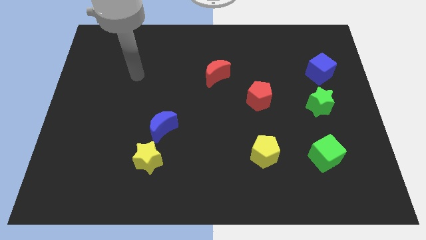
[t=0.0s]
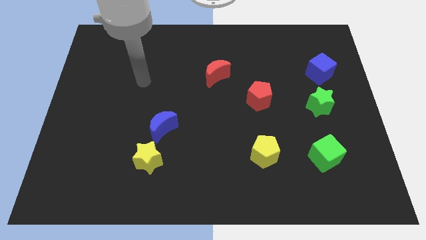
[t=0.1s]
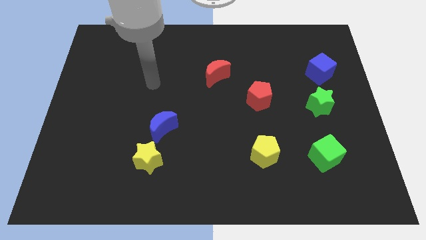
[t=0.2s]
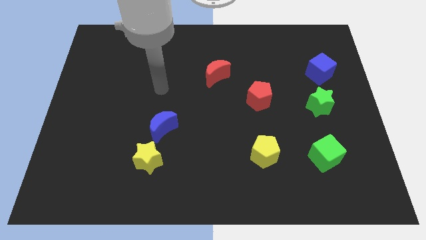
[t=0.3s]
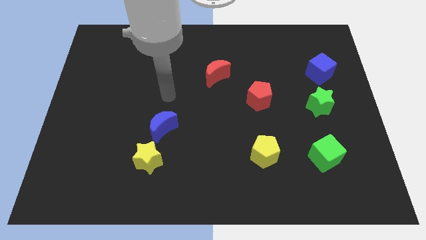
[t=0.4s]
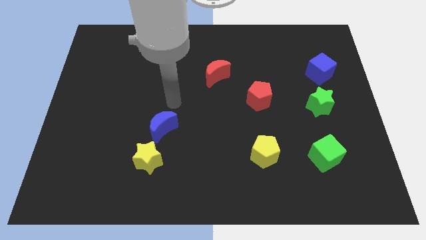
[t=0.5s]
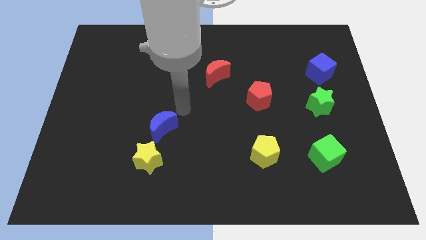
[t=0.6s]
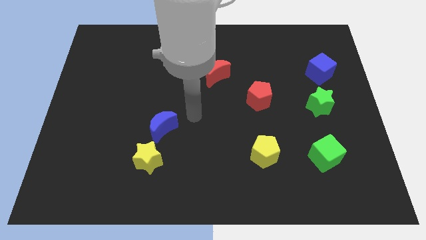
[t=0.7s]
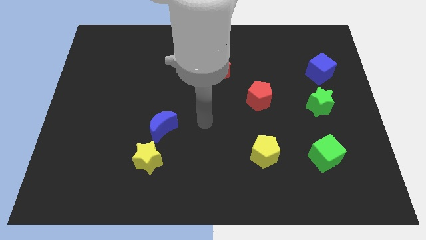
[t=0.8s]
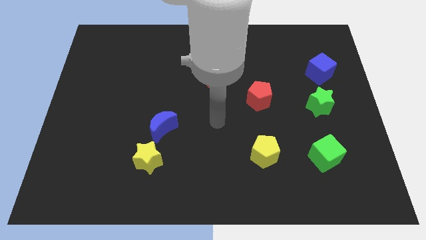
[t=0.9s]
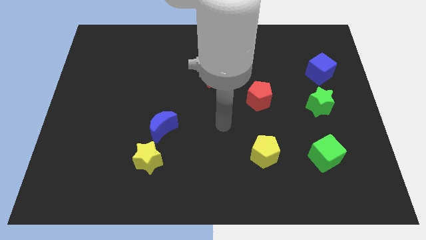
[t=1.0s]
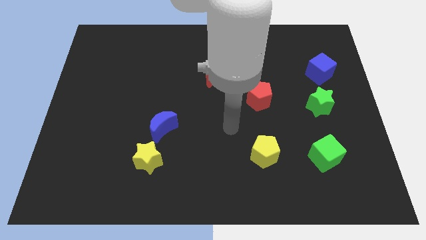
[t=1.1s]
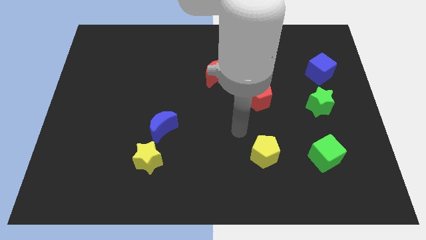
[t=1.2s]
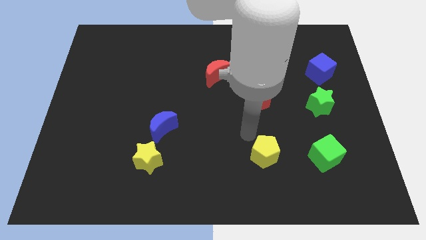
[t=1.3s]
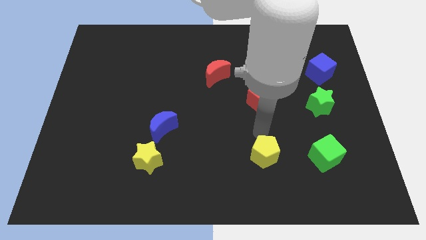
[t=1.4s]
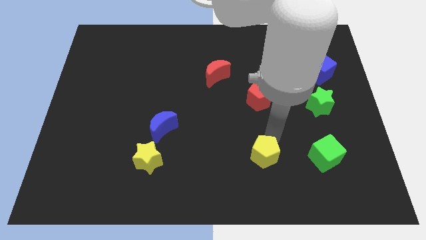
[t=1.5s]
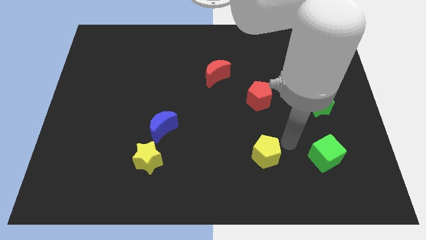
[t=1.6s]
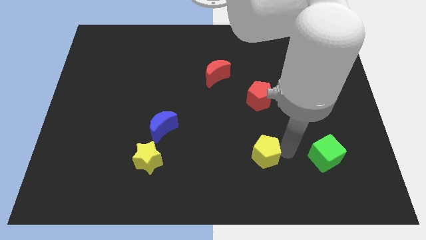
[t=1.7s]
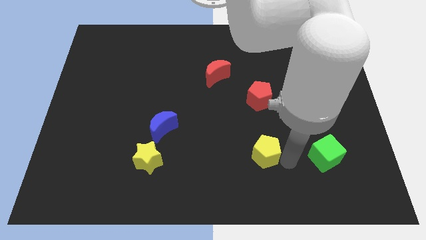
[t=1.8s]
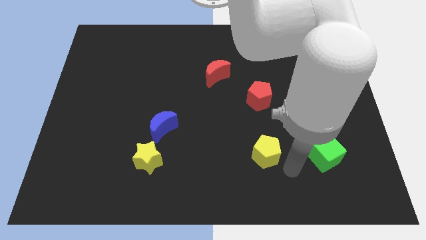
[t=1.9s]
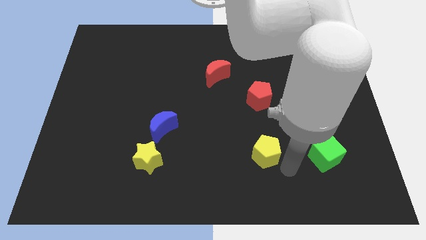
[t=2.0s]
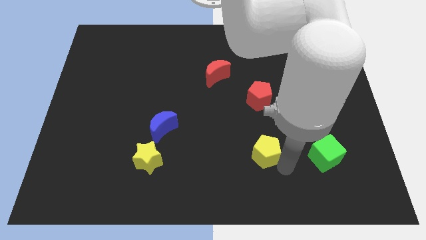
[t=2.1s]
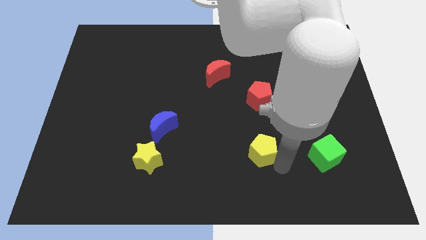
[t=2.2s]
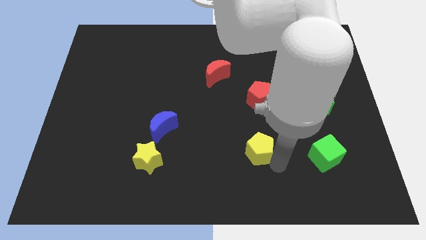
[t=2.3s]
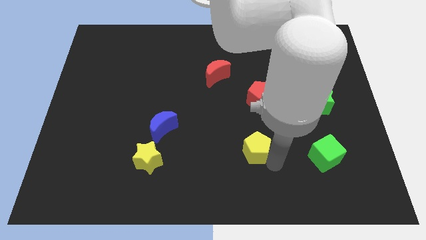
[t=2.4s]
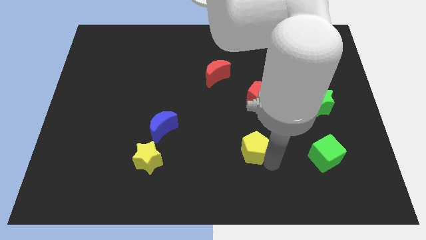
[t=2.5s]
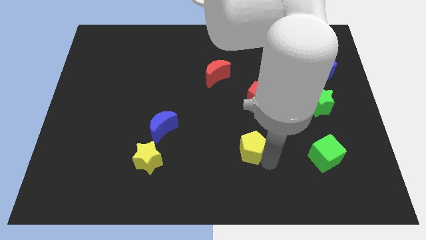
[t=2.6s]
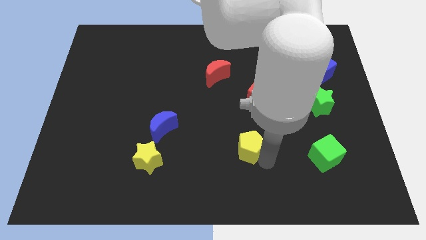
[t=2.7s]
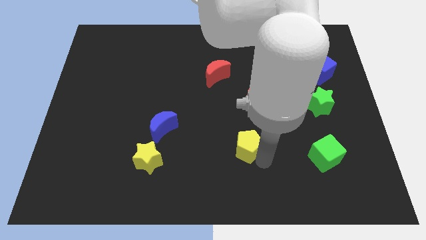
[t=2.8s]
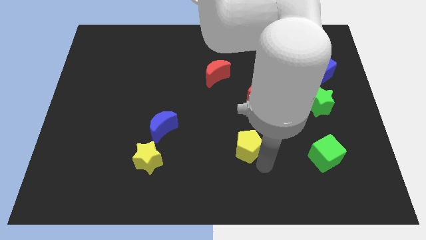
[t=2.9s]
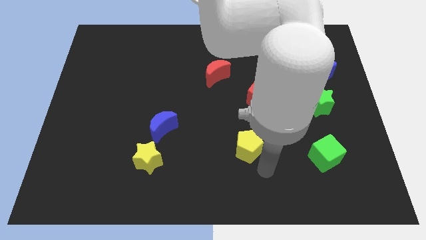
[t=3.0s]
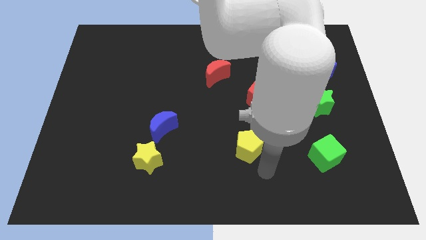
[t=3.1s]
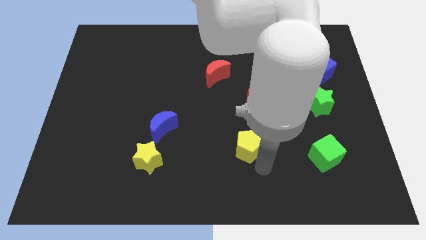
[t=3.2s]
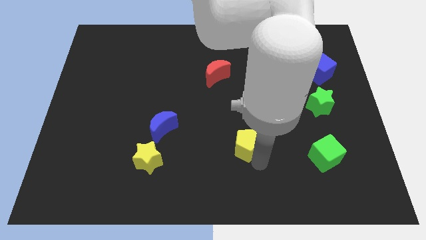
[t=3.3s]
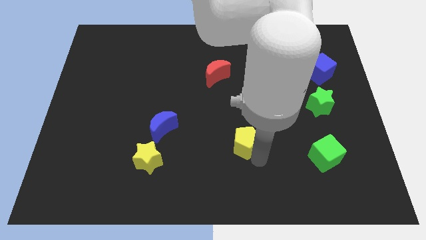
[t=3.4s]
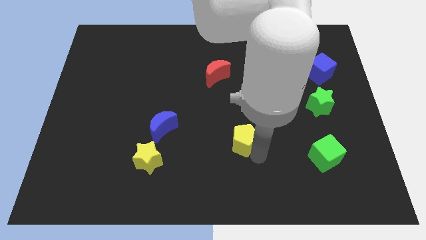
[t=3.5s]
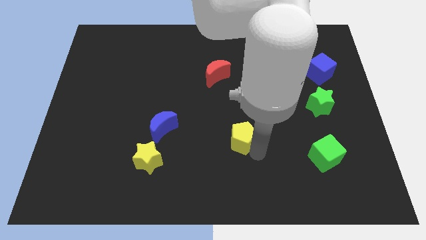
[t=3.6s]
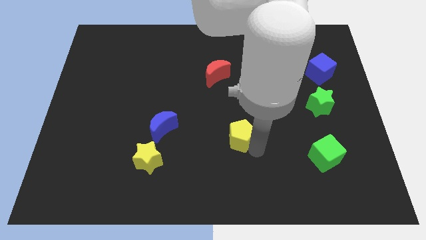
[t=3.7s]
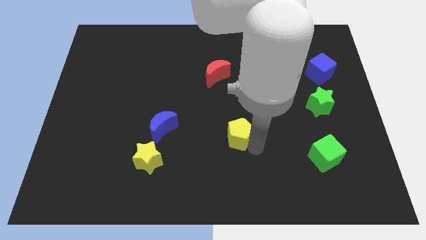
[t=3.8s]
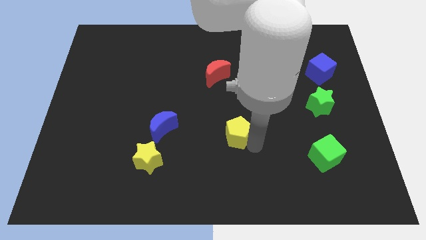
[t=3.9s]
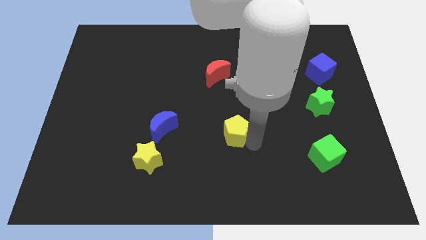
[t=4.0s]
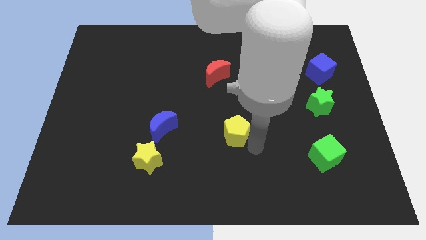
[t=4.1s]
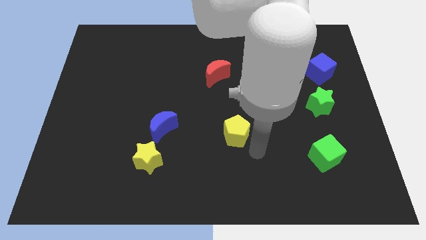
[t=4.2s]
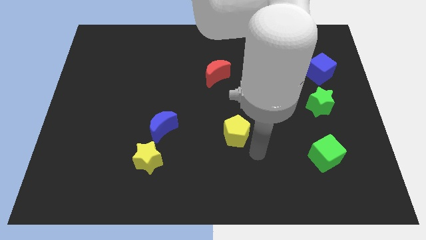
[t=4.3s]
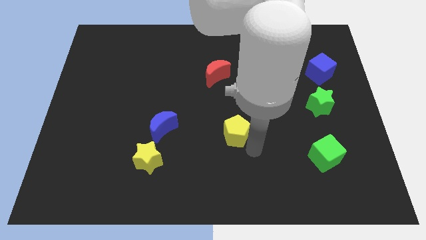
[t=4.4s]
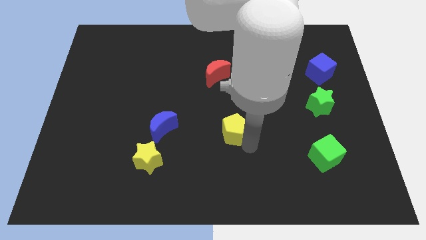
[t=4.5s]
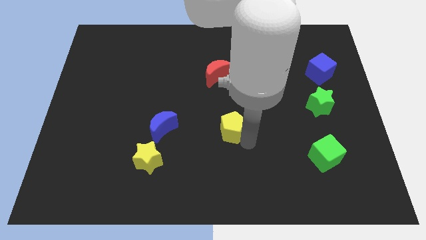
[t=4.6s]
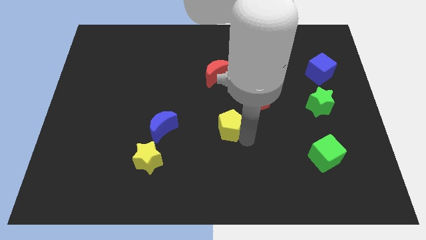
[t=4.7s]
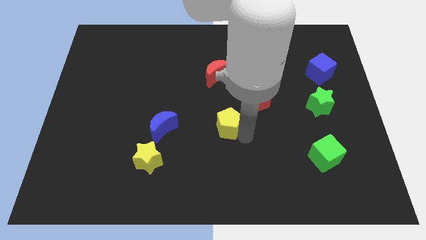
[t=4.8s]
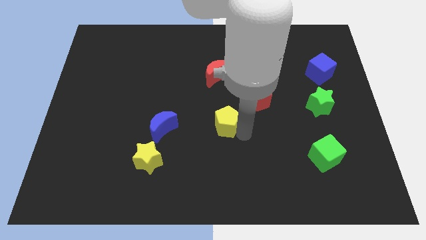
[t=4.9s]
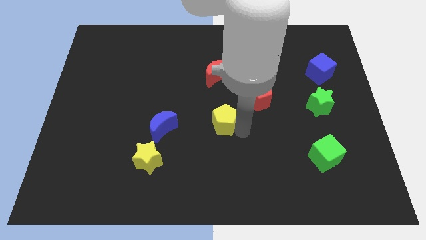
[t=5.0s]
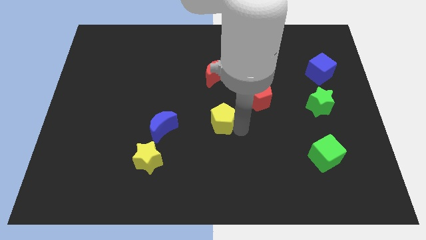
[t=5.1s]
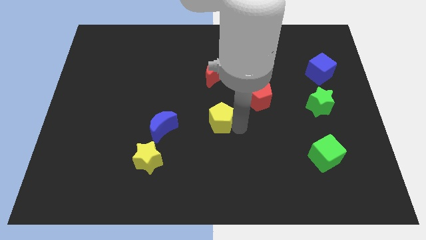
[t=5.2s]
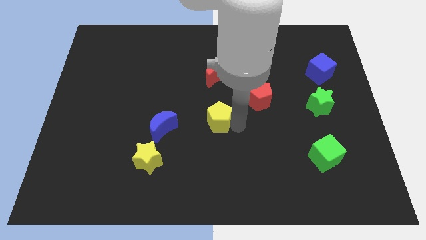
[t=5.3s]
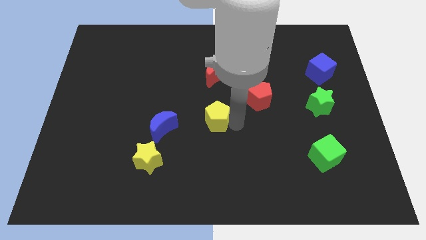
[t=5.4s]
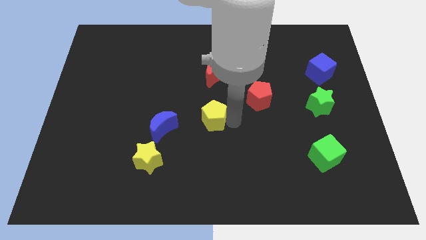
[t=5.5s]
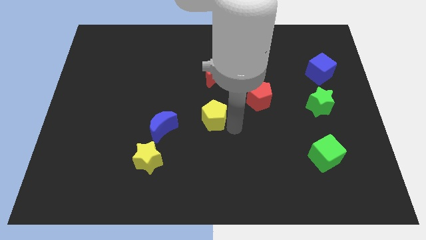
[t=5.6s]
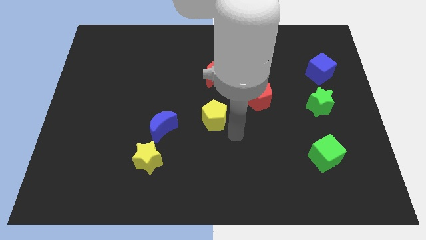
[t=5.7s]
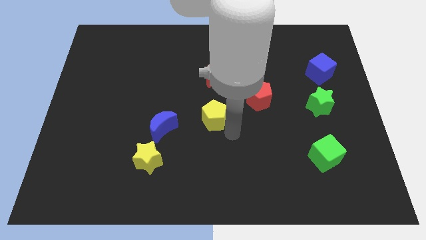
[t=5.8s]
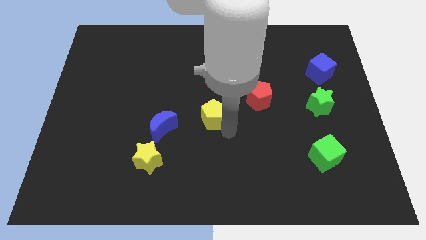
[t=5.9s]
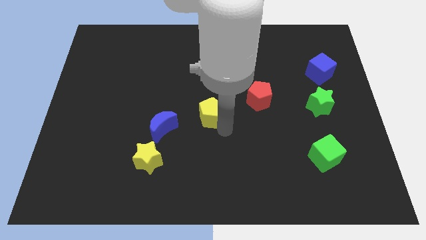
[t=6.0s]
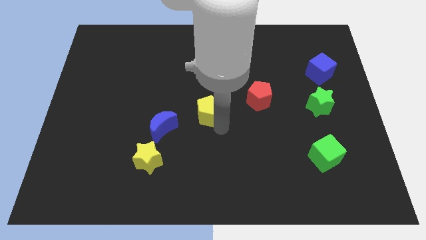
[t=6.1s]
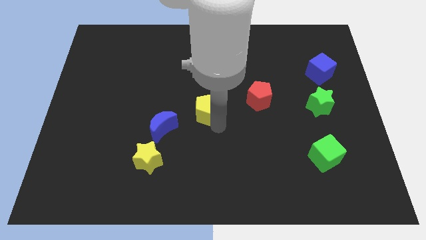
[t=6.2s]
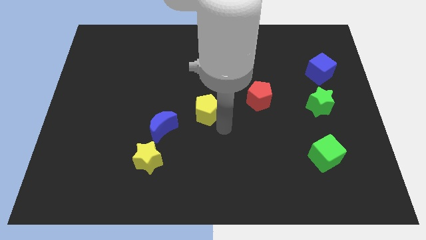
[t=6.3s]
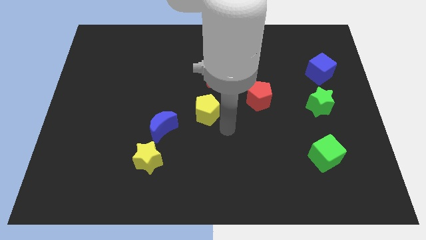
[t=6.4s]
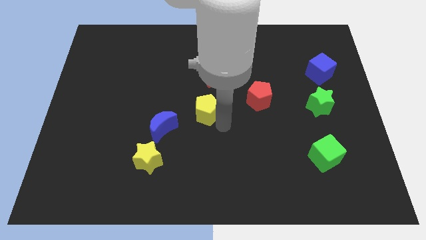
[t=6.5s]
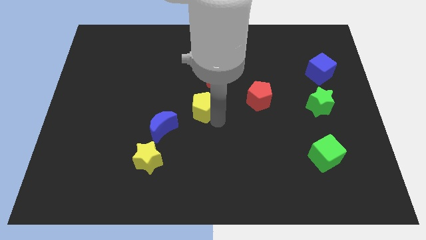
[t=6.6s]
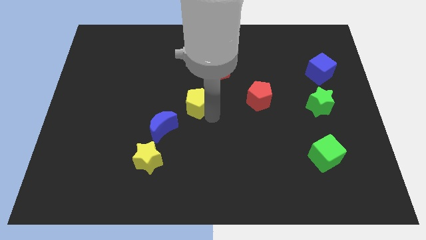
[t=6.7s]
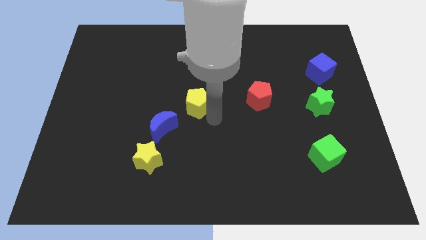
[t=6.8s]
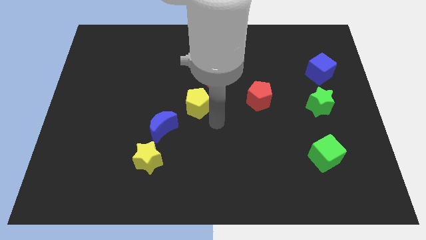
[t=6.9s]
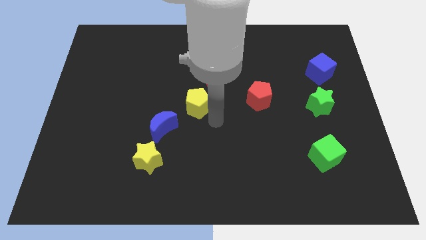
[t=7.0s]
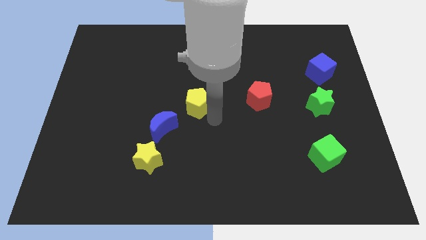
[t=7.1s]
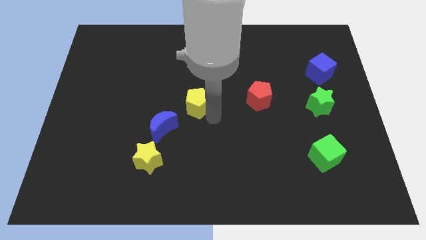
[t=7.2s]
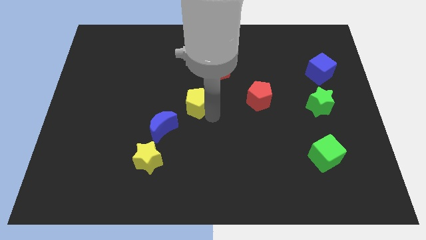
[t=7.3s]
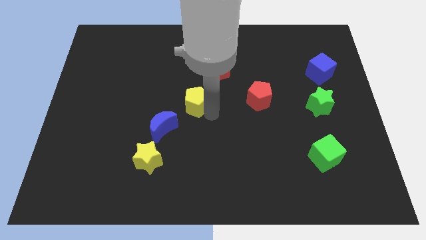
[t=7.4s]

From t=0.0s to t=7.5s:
slide the yellow pentagon up and then to the left

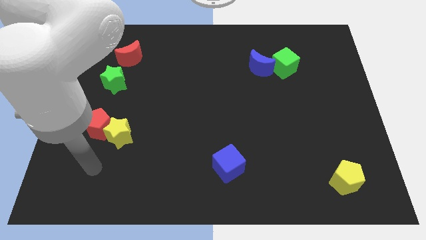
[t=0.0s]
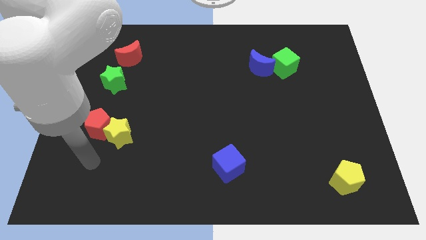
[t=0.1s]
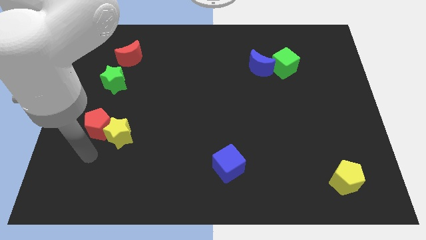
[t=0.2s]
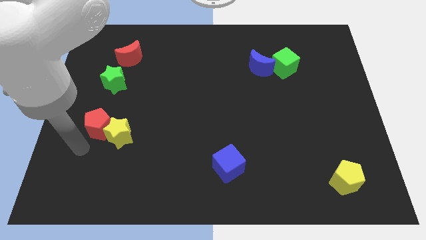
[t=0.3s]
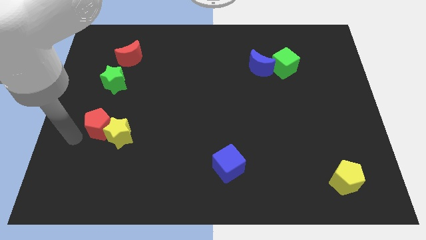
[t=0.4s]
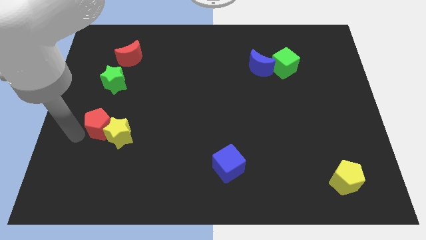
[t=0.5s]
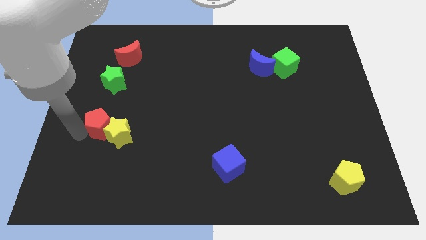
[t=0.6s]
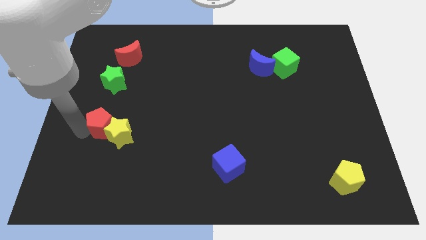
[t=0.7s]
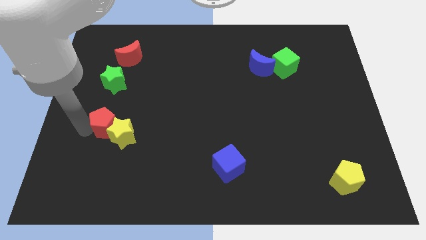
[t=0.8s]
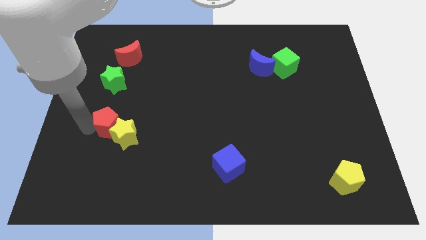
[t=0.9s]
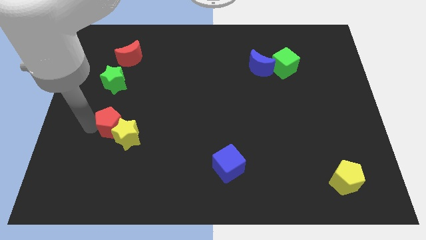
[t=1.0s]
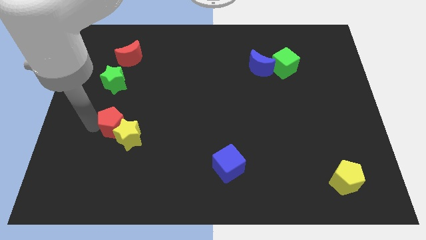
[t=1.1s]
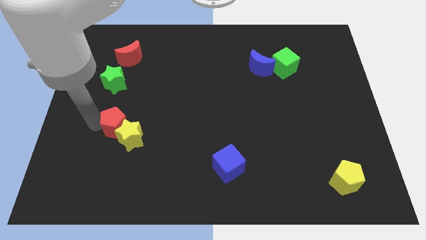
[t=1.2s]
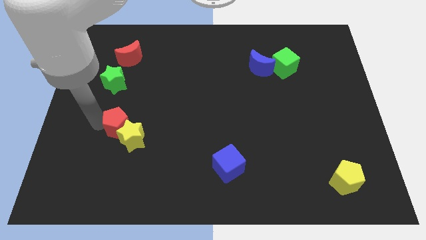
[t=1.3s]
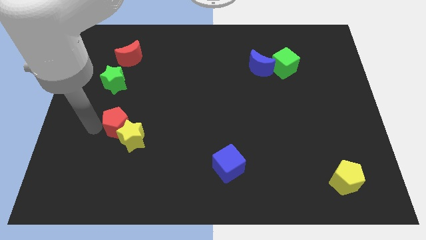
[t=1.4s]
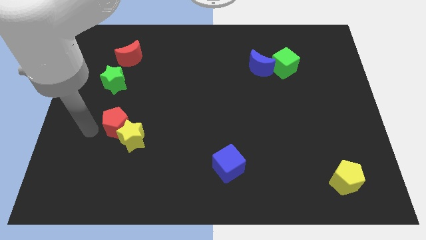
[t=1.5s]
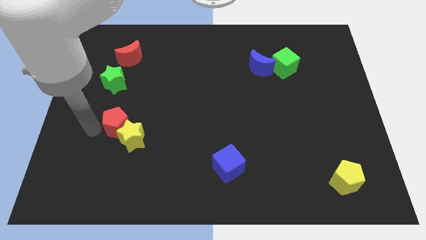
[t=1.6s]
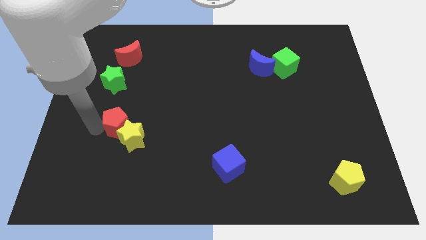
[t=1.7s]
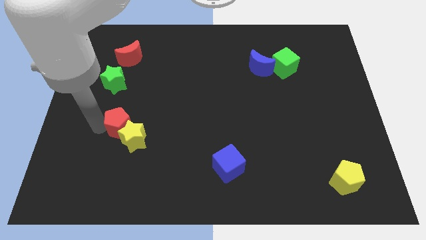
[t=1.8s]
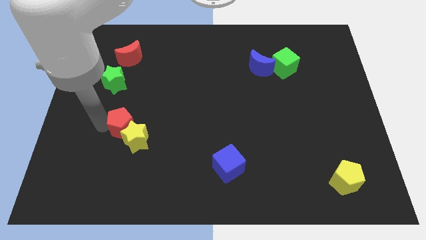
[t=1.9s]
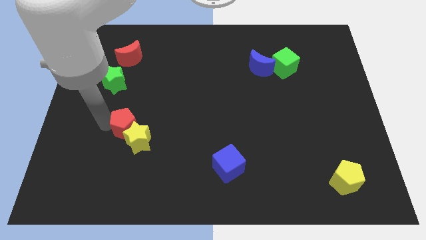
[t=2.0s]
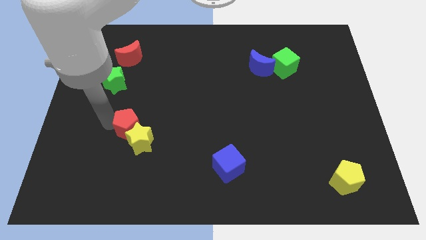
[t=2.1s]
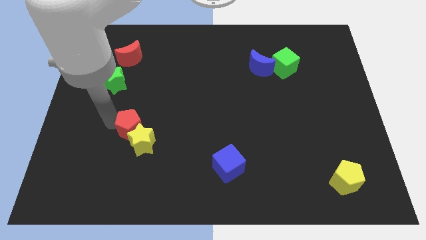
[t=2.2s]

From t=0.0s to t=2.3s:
move the red pentagon to the right somewhat
